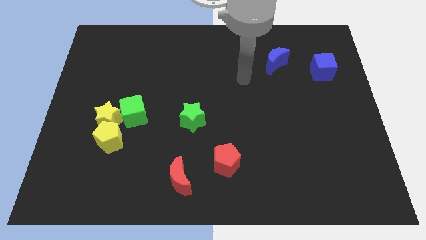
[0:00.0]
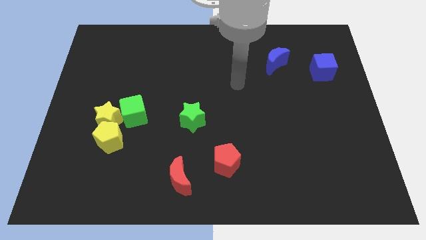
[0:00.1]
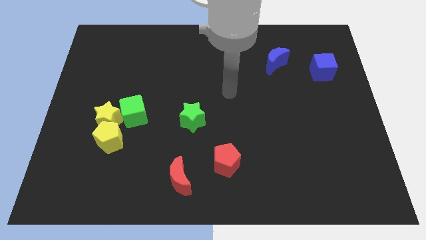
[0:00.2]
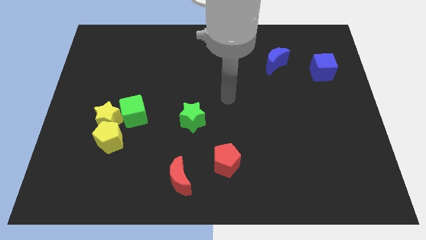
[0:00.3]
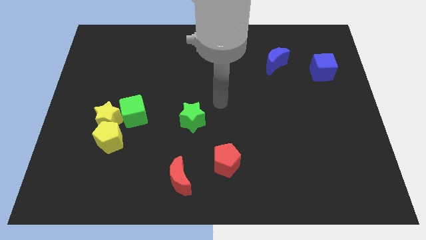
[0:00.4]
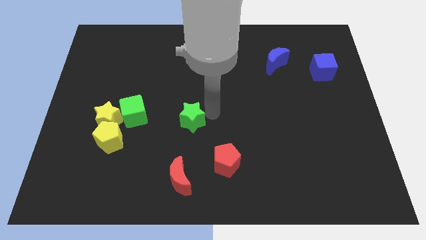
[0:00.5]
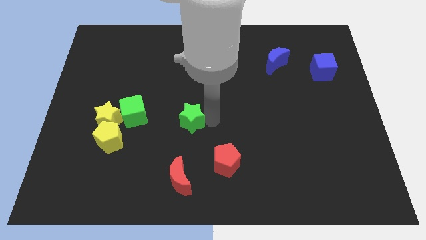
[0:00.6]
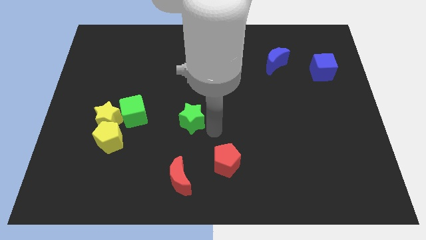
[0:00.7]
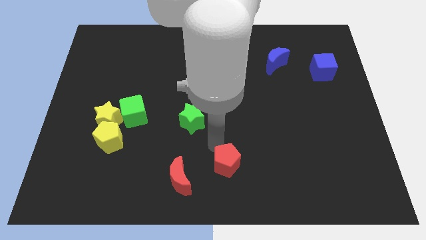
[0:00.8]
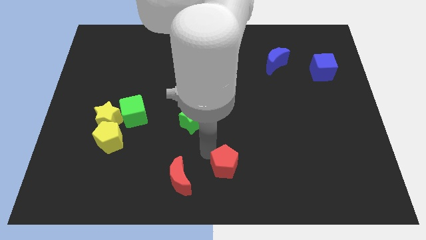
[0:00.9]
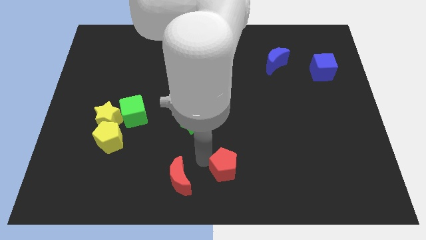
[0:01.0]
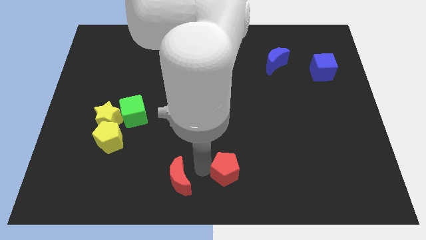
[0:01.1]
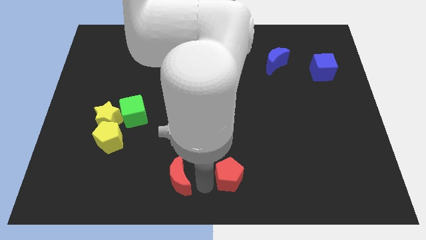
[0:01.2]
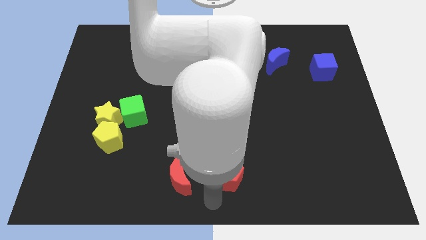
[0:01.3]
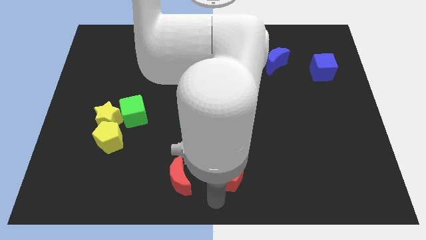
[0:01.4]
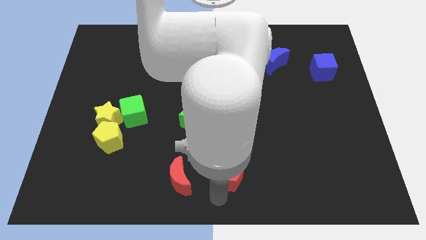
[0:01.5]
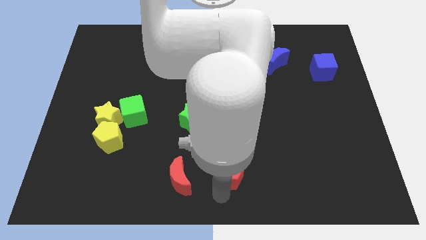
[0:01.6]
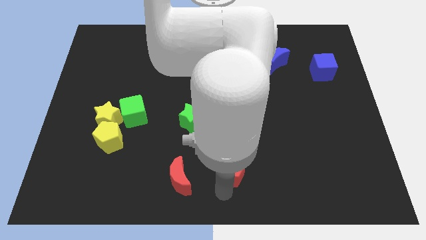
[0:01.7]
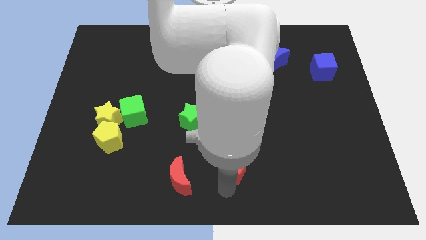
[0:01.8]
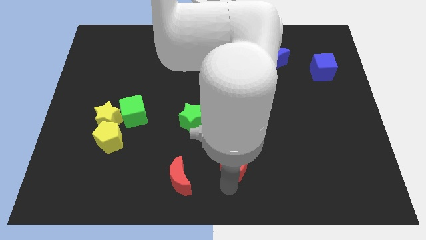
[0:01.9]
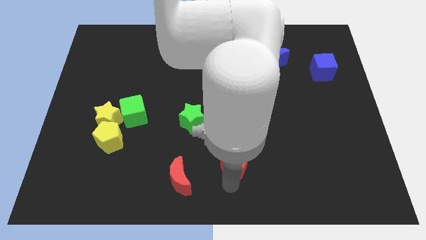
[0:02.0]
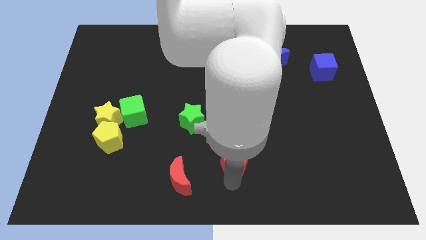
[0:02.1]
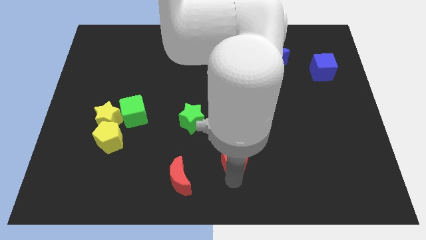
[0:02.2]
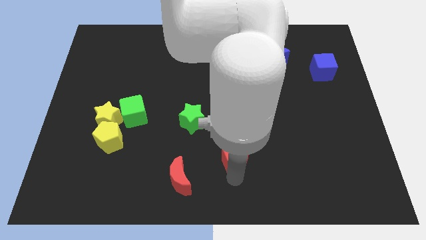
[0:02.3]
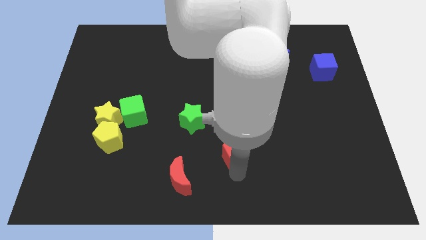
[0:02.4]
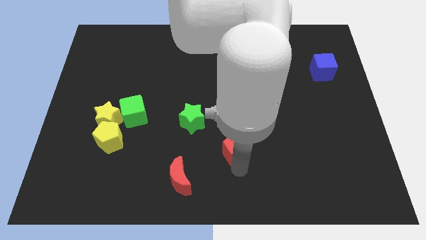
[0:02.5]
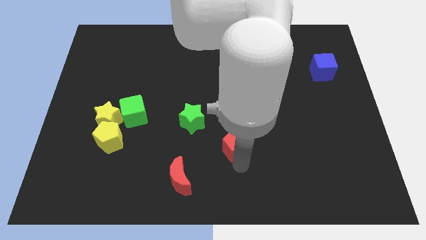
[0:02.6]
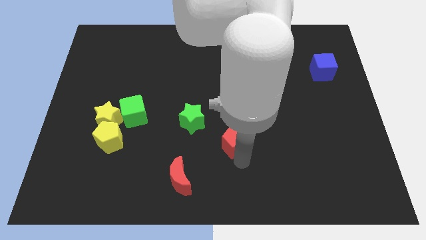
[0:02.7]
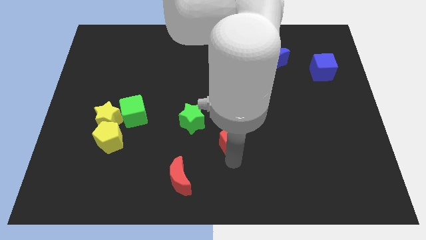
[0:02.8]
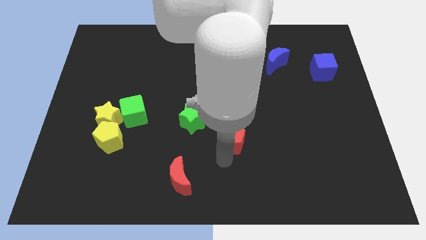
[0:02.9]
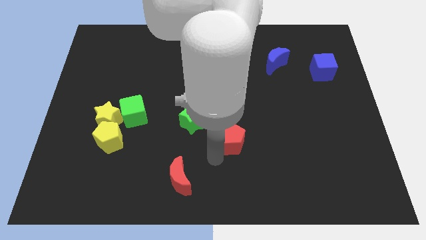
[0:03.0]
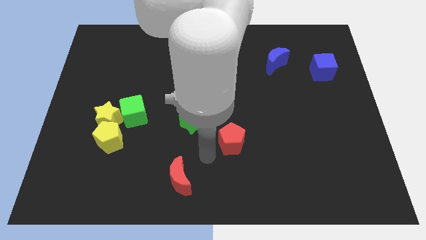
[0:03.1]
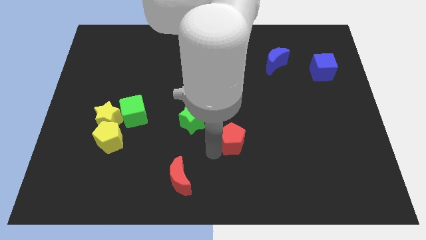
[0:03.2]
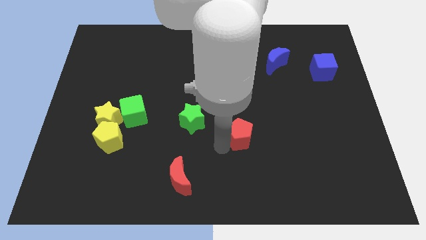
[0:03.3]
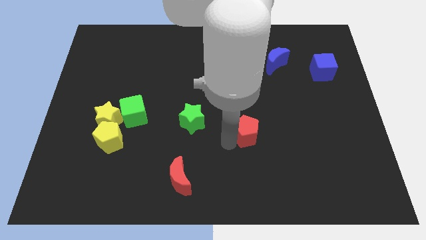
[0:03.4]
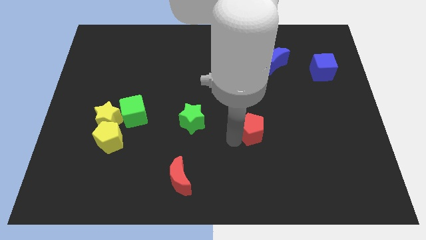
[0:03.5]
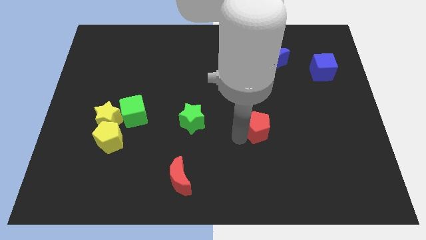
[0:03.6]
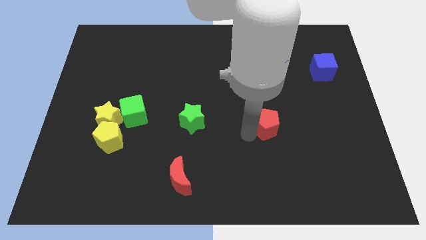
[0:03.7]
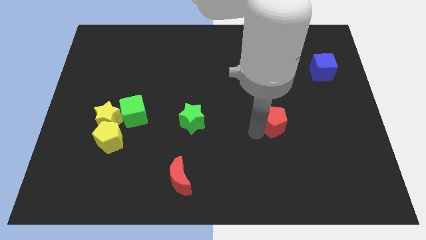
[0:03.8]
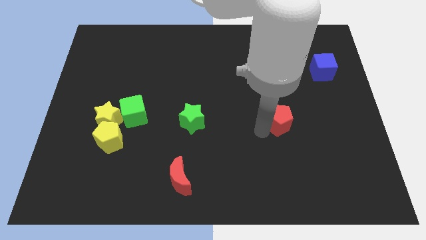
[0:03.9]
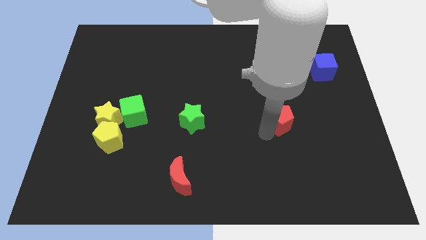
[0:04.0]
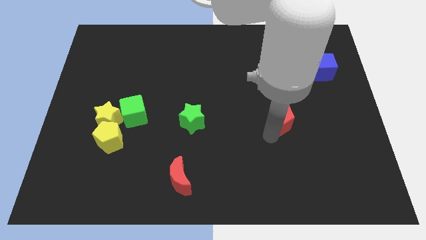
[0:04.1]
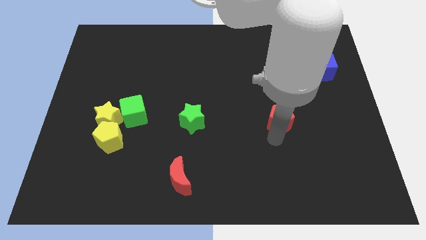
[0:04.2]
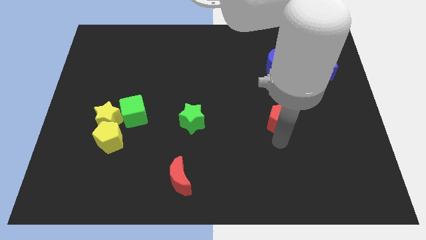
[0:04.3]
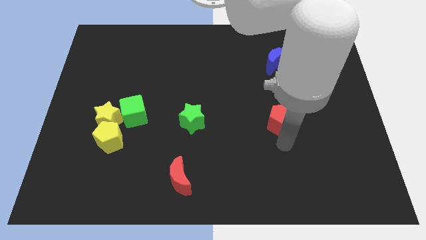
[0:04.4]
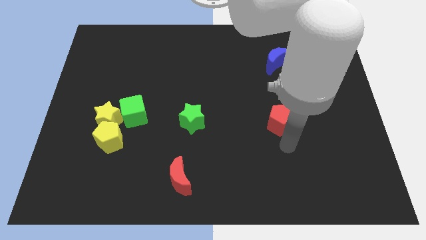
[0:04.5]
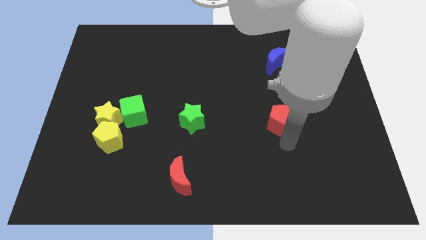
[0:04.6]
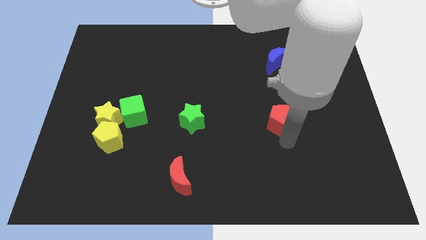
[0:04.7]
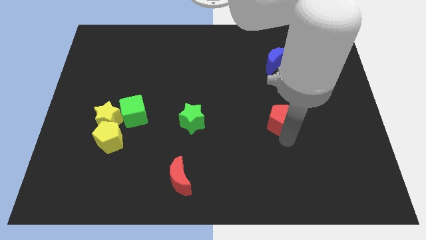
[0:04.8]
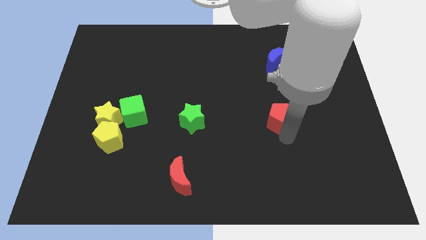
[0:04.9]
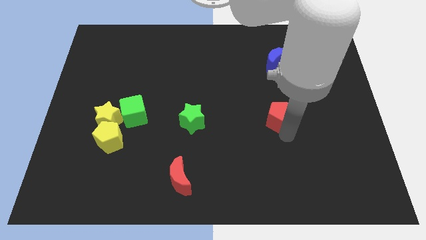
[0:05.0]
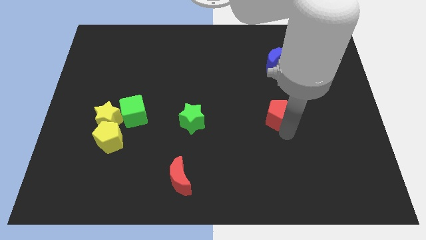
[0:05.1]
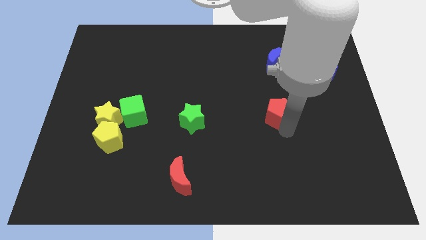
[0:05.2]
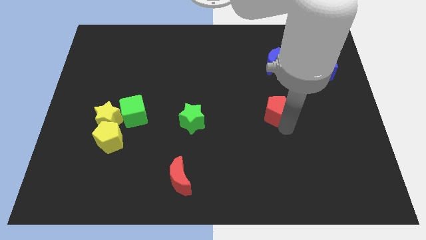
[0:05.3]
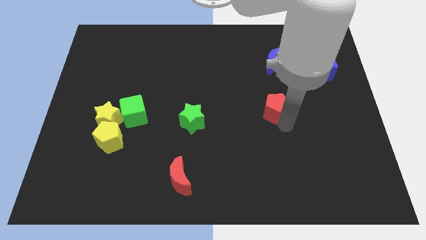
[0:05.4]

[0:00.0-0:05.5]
push the red pentagon to the bottom of the blue moon

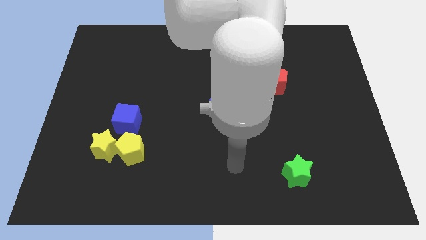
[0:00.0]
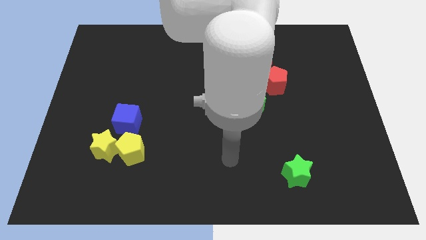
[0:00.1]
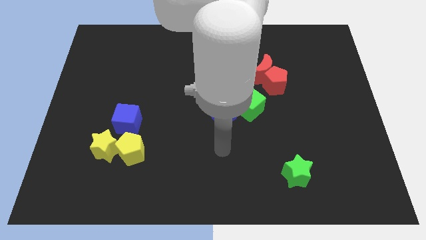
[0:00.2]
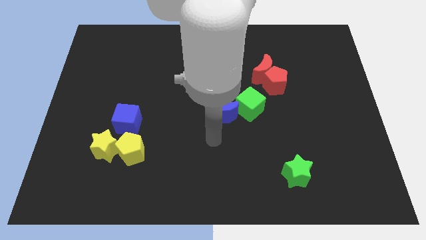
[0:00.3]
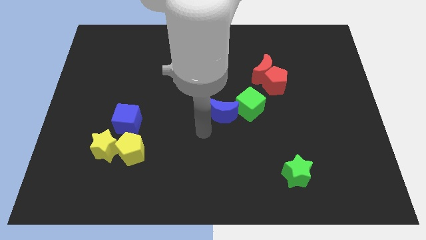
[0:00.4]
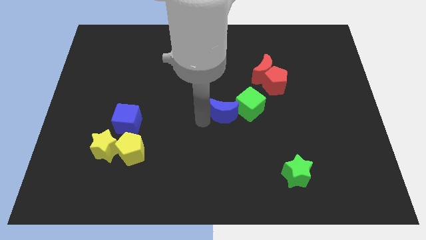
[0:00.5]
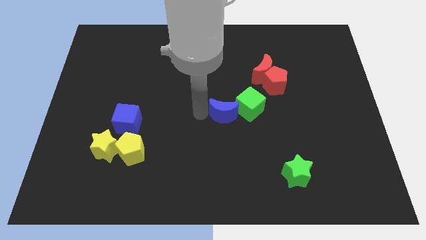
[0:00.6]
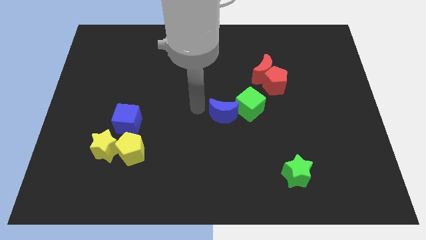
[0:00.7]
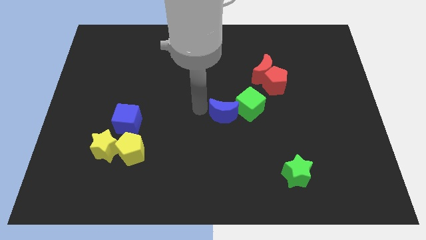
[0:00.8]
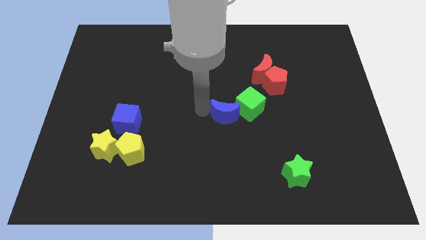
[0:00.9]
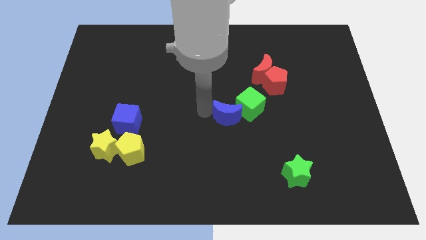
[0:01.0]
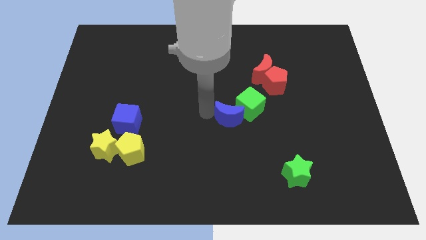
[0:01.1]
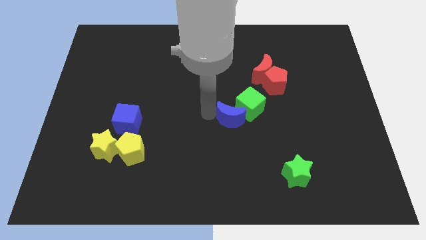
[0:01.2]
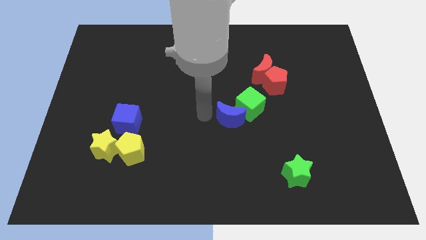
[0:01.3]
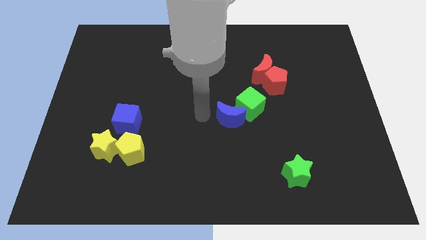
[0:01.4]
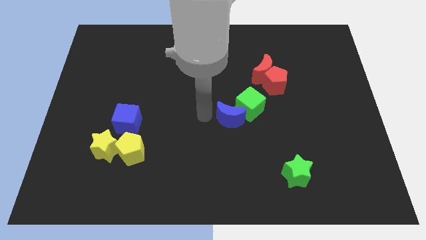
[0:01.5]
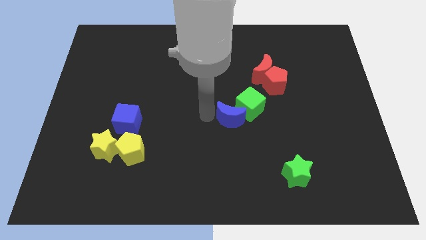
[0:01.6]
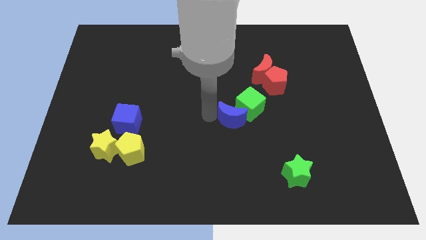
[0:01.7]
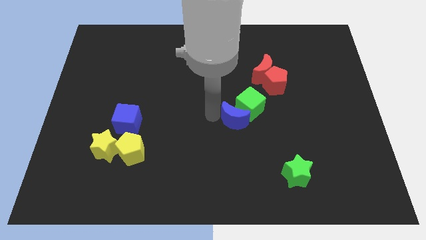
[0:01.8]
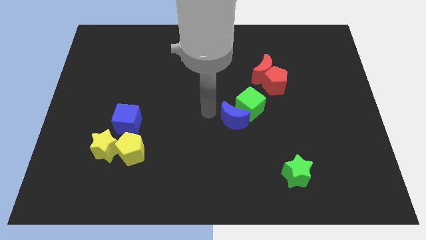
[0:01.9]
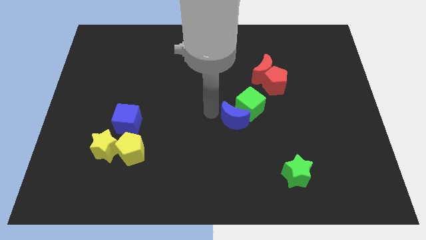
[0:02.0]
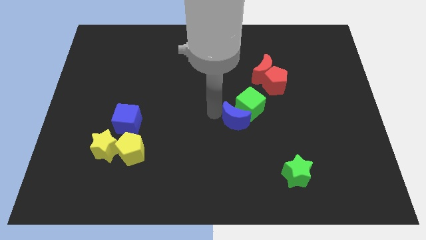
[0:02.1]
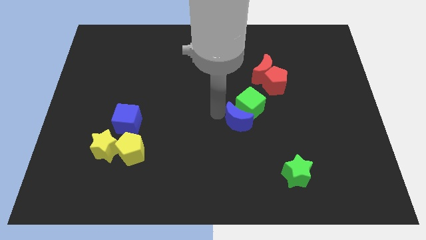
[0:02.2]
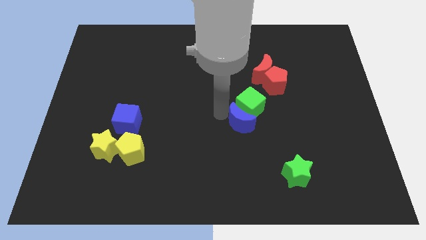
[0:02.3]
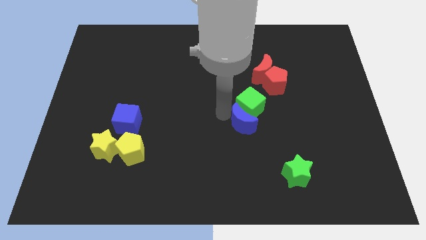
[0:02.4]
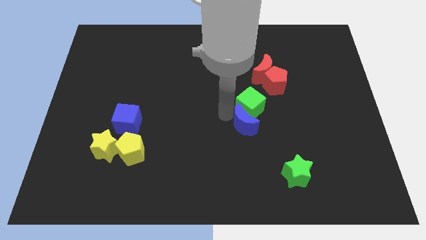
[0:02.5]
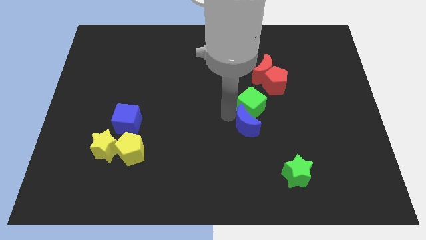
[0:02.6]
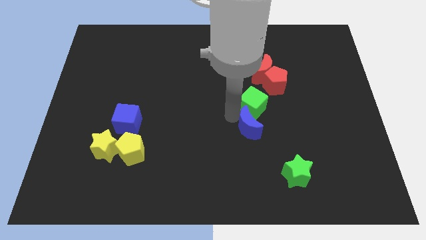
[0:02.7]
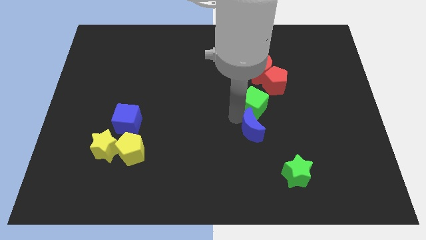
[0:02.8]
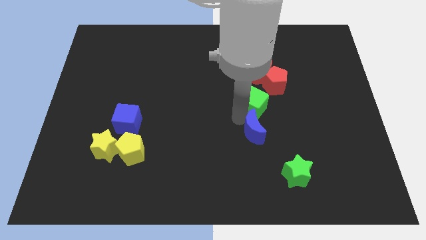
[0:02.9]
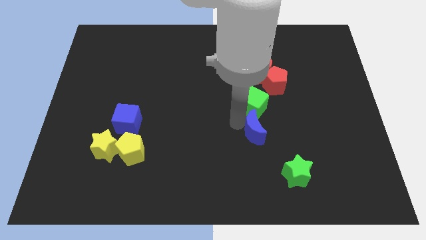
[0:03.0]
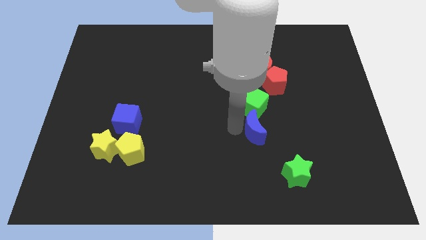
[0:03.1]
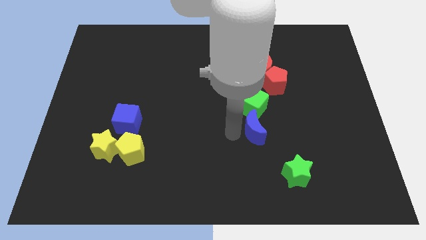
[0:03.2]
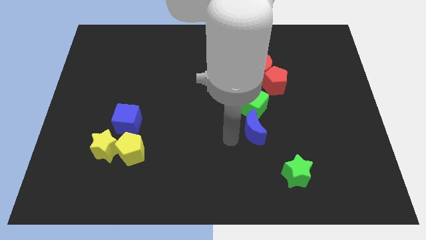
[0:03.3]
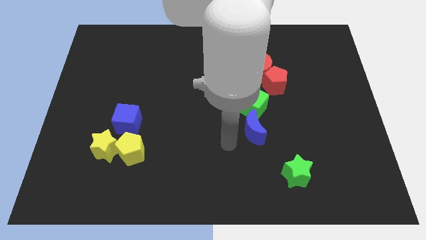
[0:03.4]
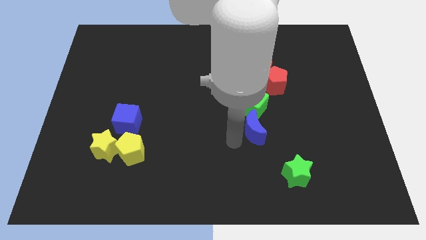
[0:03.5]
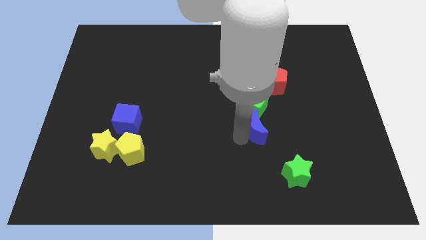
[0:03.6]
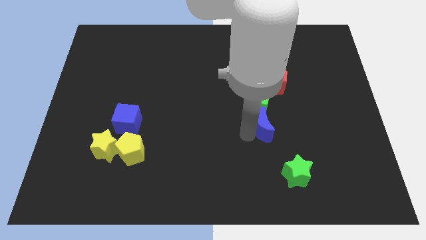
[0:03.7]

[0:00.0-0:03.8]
put the blue moon to the bottom side of the red pentagon
